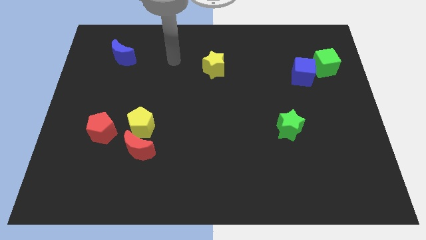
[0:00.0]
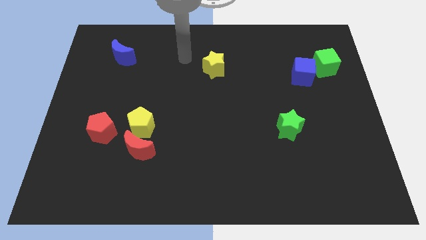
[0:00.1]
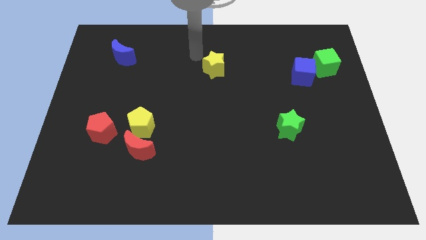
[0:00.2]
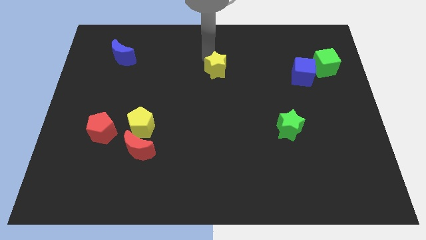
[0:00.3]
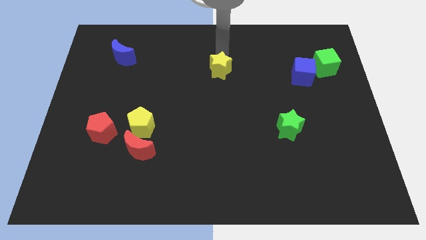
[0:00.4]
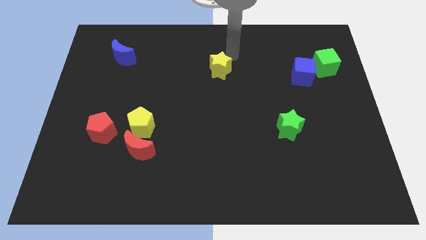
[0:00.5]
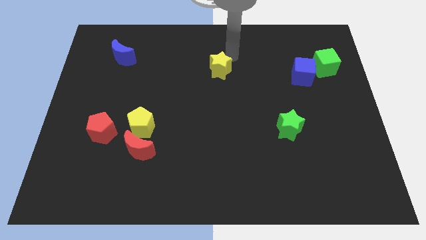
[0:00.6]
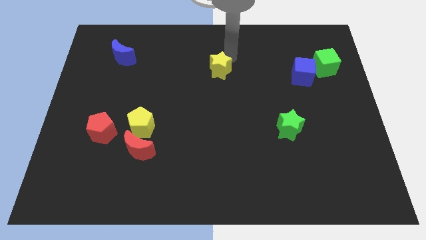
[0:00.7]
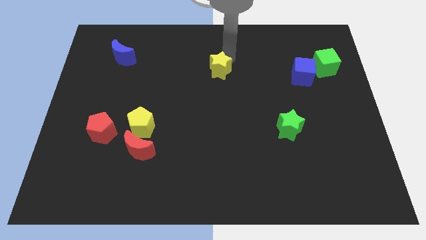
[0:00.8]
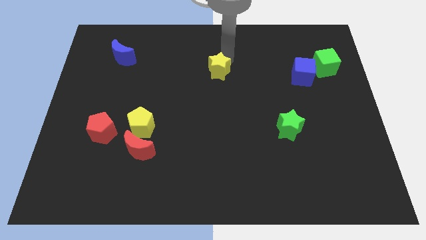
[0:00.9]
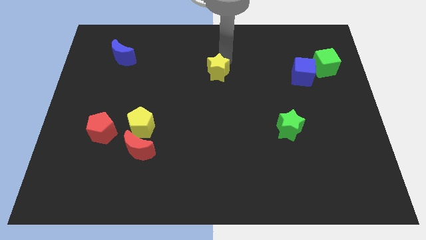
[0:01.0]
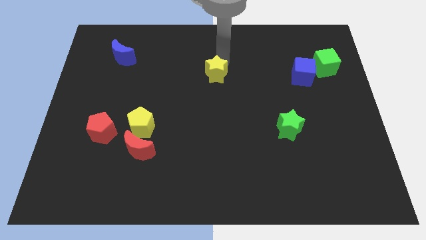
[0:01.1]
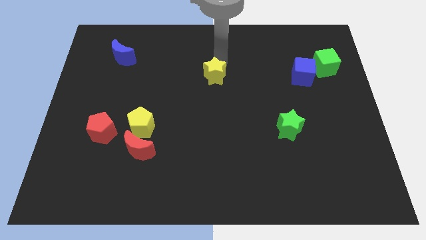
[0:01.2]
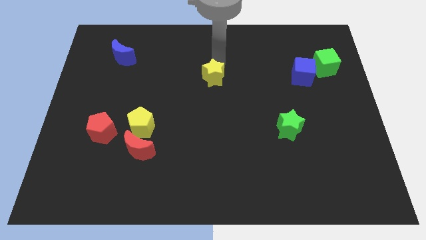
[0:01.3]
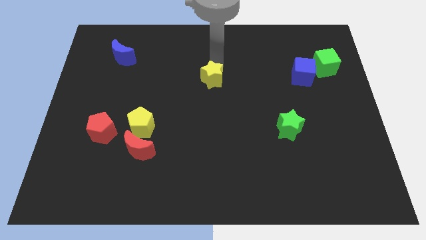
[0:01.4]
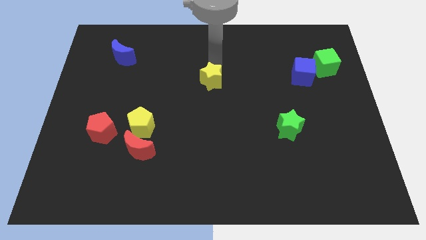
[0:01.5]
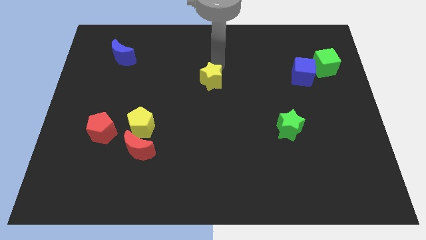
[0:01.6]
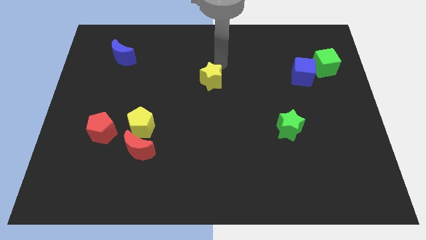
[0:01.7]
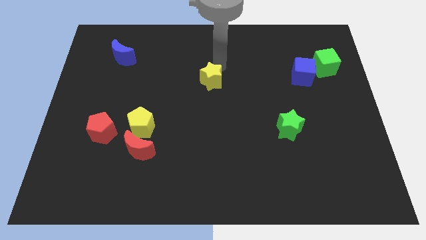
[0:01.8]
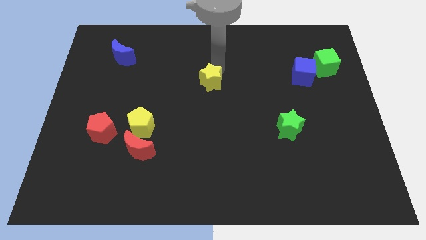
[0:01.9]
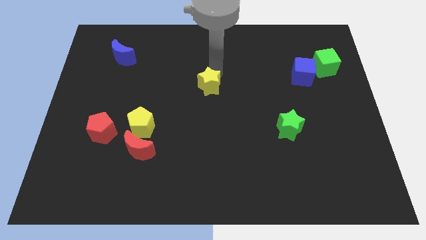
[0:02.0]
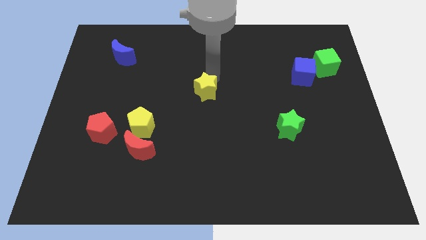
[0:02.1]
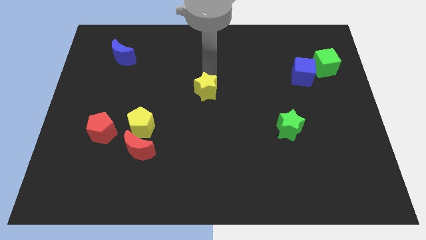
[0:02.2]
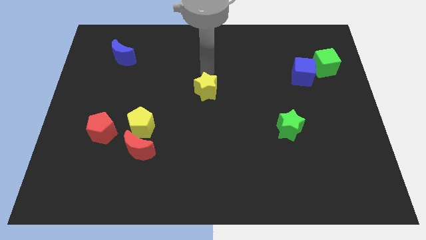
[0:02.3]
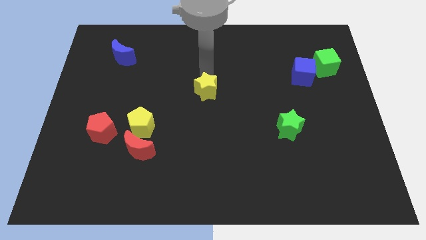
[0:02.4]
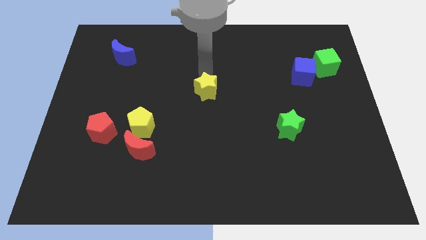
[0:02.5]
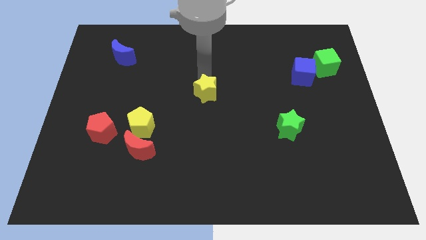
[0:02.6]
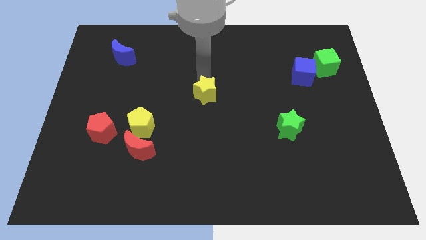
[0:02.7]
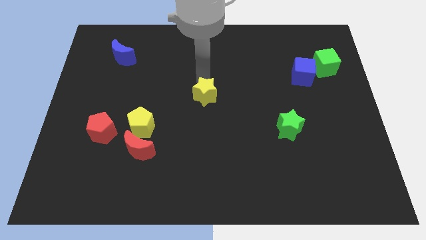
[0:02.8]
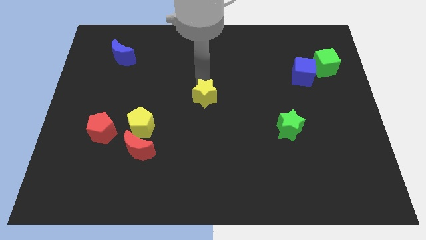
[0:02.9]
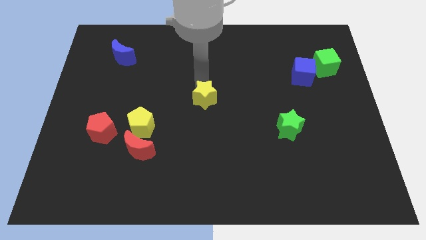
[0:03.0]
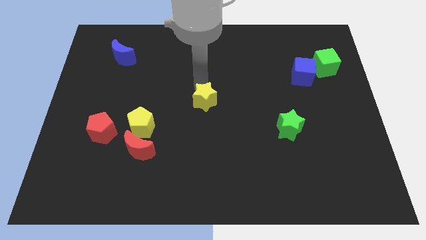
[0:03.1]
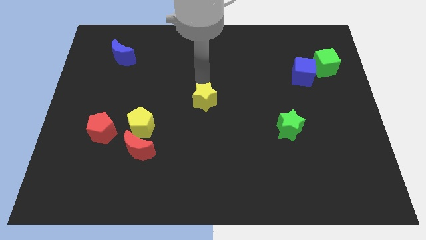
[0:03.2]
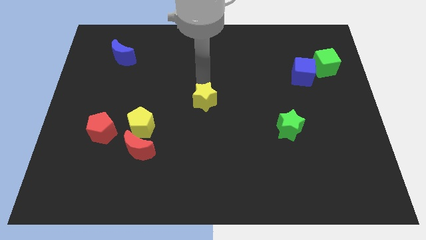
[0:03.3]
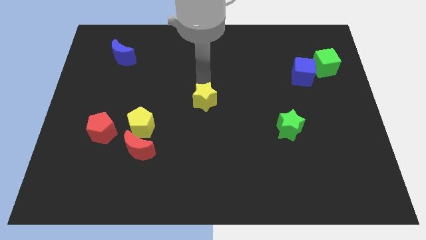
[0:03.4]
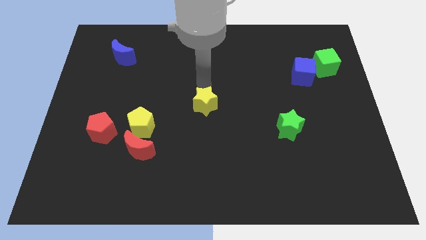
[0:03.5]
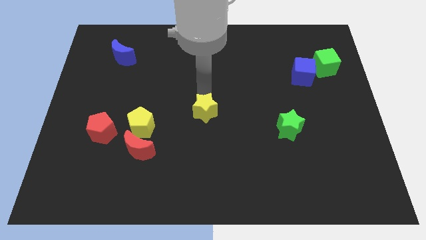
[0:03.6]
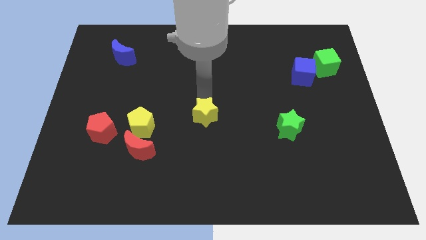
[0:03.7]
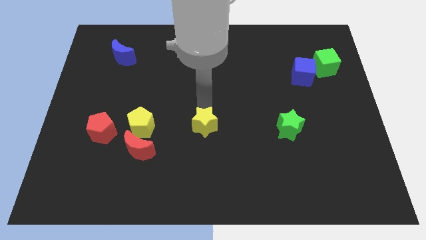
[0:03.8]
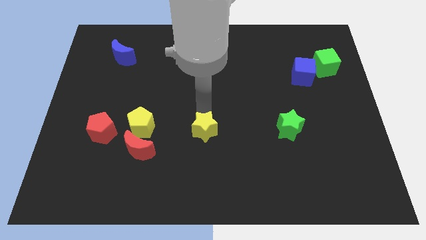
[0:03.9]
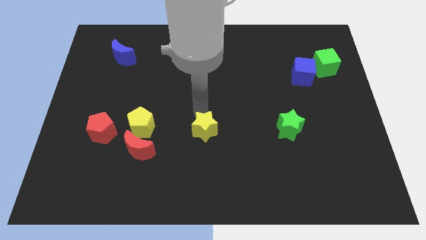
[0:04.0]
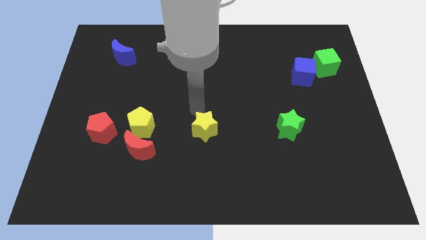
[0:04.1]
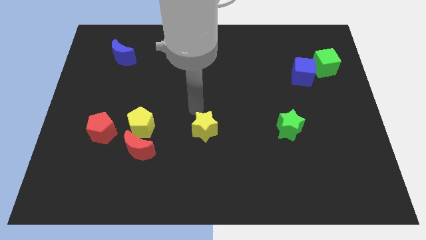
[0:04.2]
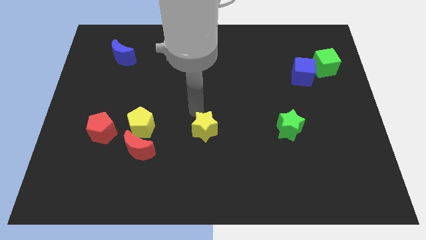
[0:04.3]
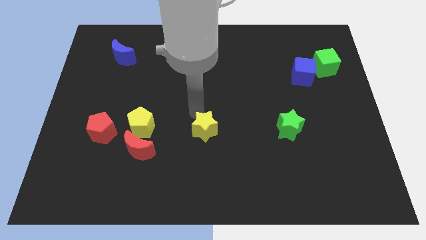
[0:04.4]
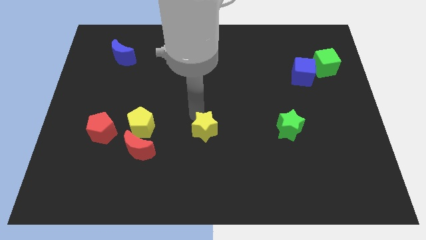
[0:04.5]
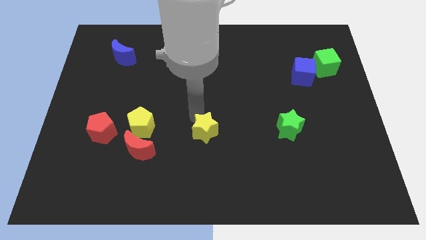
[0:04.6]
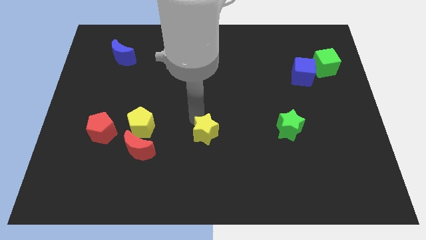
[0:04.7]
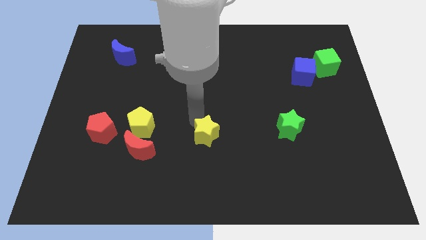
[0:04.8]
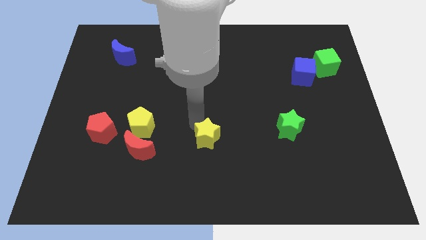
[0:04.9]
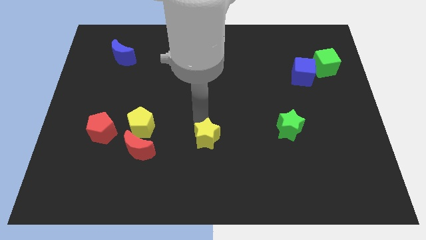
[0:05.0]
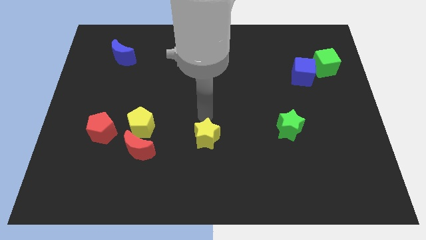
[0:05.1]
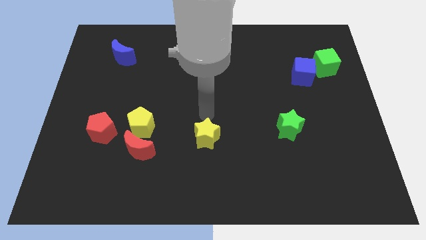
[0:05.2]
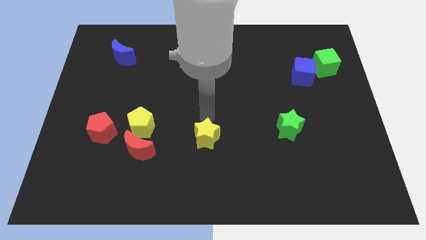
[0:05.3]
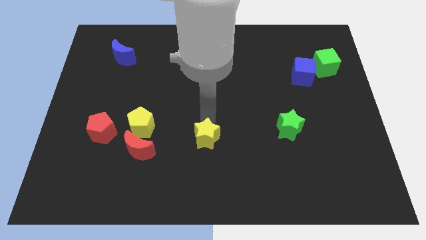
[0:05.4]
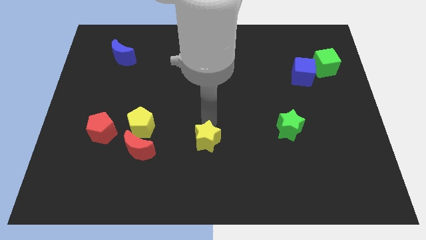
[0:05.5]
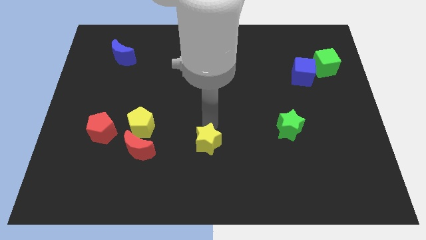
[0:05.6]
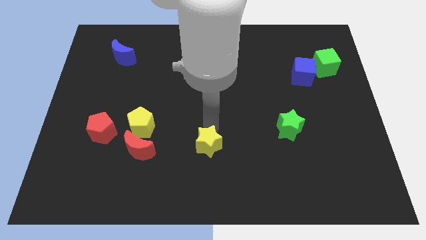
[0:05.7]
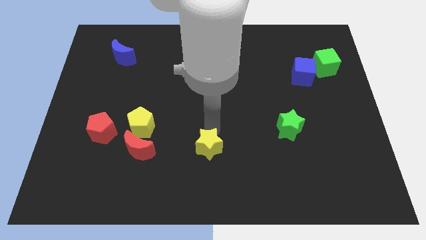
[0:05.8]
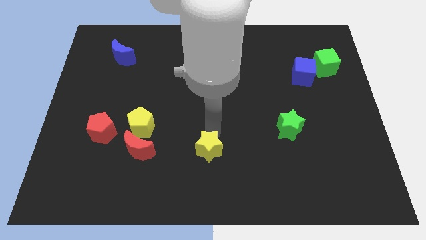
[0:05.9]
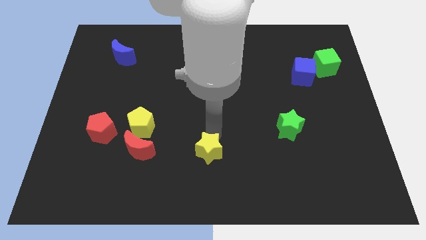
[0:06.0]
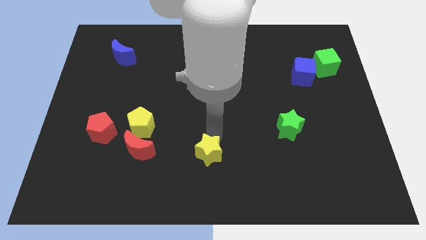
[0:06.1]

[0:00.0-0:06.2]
push the yellow star to the bottom
